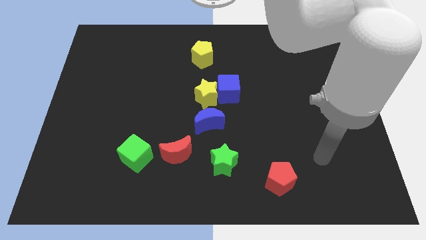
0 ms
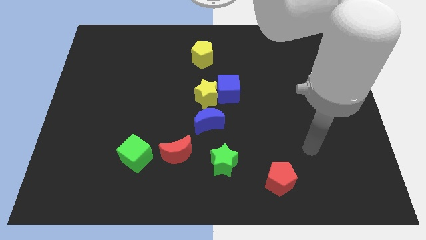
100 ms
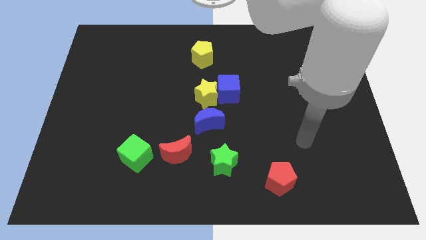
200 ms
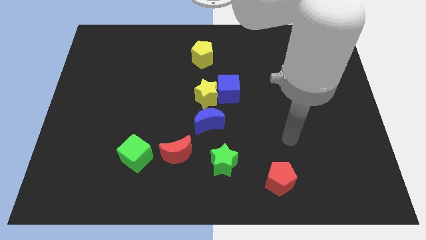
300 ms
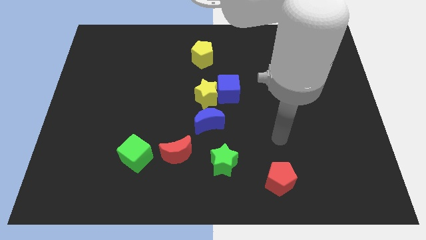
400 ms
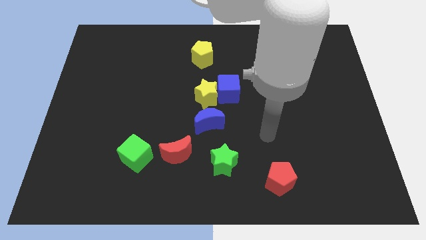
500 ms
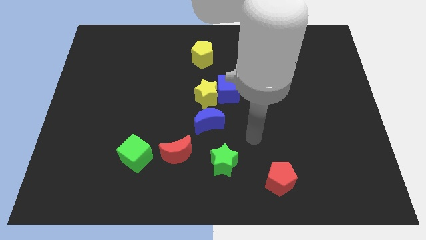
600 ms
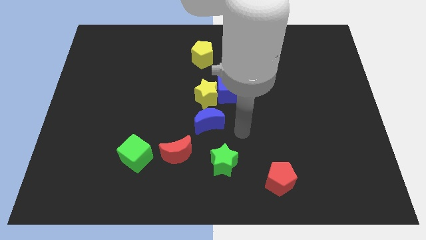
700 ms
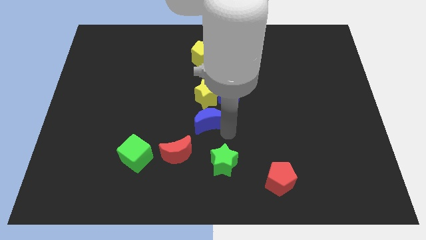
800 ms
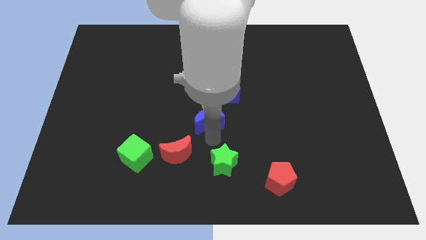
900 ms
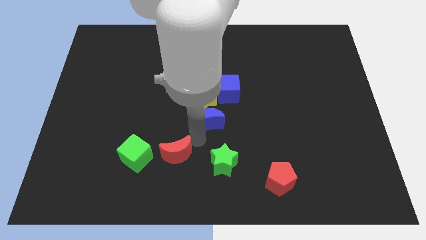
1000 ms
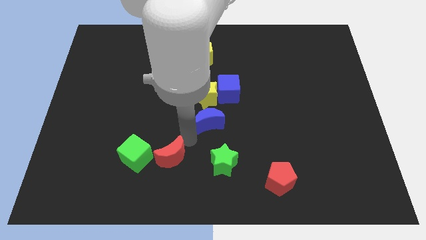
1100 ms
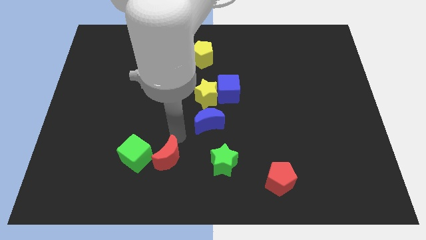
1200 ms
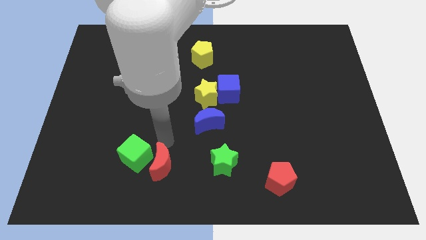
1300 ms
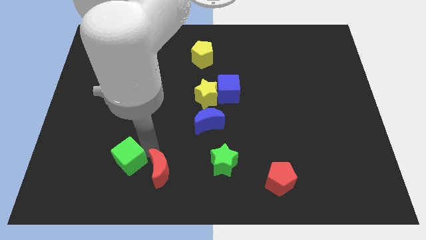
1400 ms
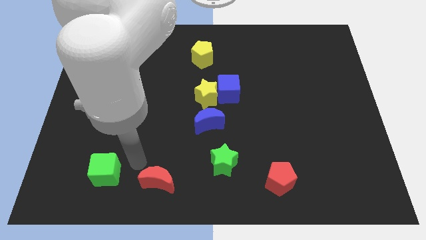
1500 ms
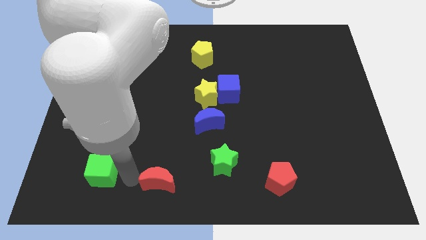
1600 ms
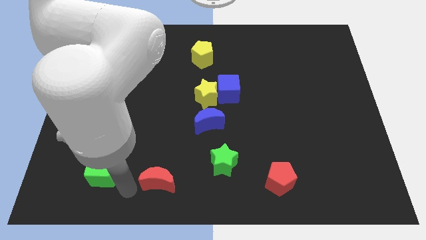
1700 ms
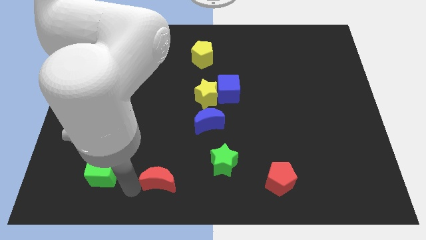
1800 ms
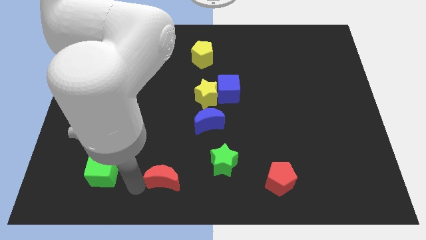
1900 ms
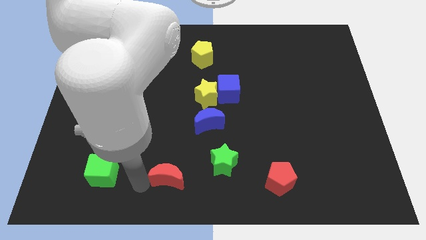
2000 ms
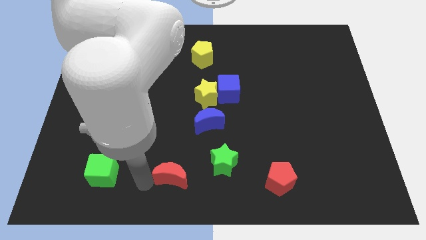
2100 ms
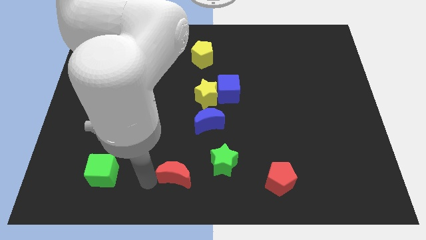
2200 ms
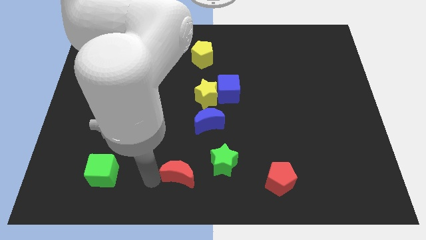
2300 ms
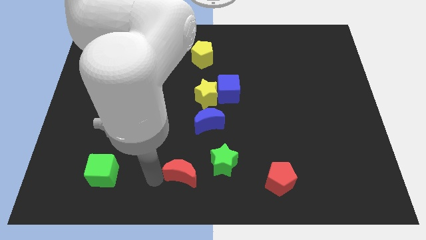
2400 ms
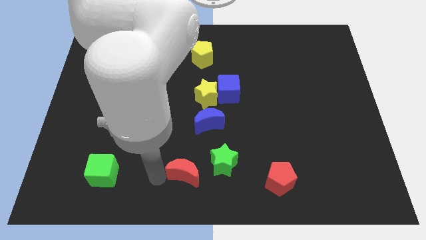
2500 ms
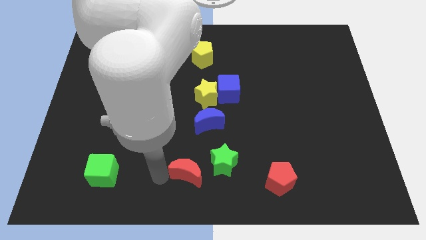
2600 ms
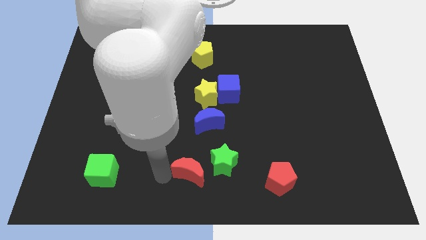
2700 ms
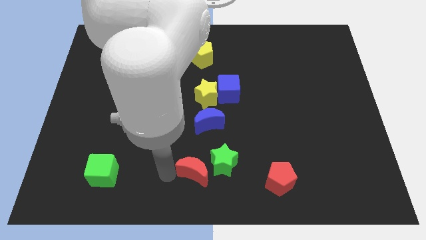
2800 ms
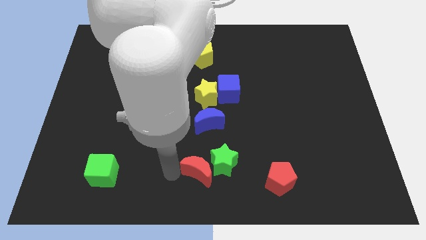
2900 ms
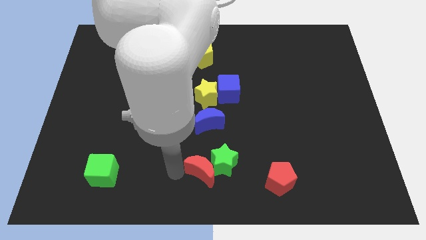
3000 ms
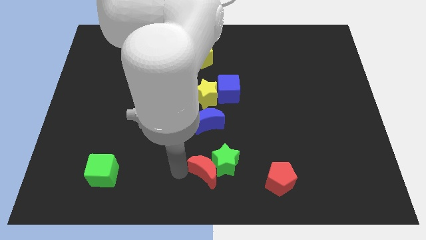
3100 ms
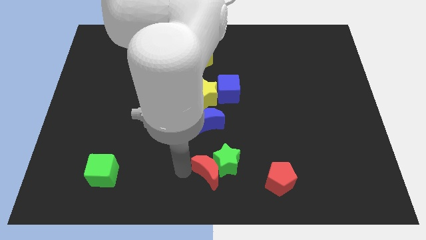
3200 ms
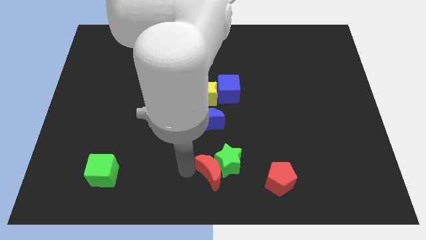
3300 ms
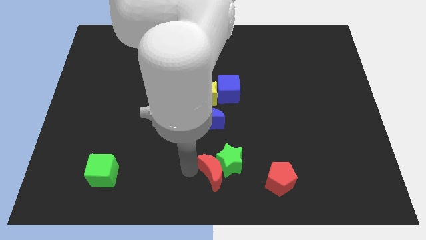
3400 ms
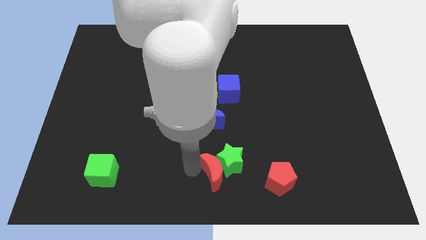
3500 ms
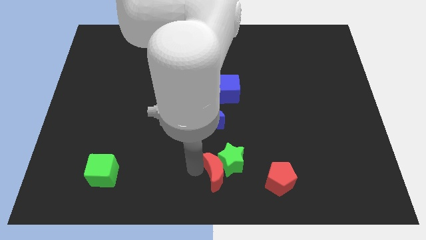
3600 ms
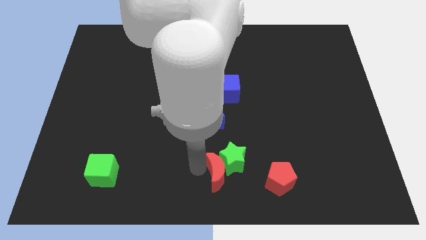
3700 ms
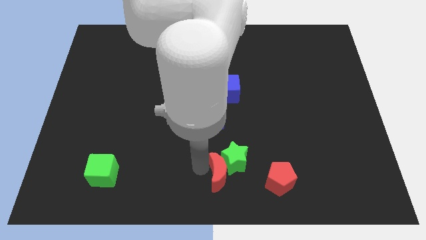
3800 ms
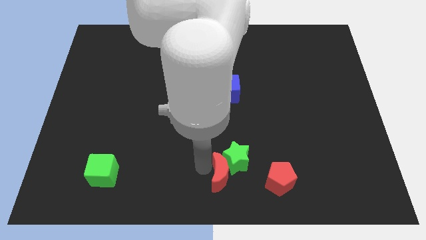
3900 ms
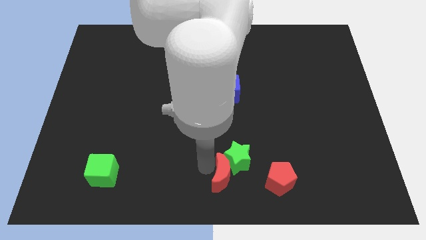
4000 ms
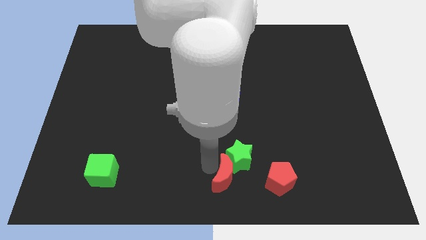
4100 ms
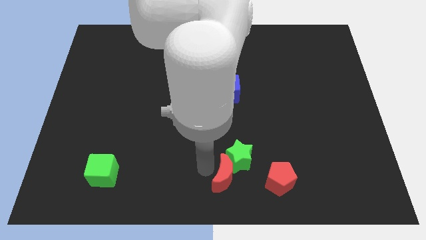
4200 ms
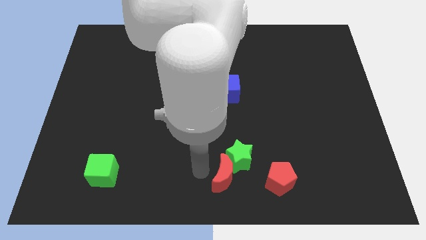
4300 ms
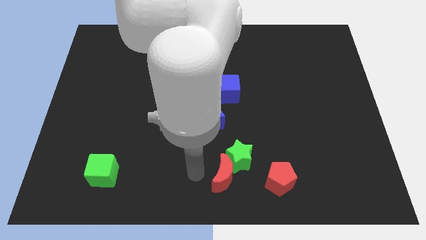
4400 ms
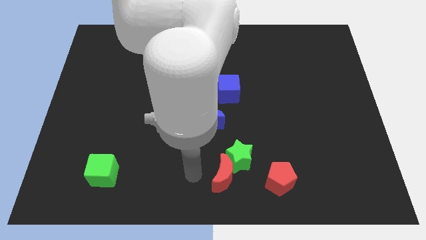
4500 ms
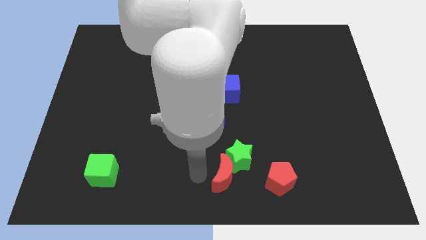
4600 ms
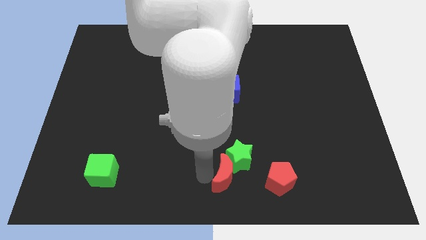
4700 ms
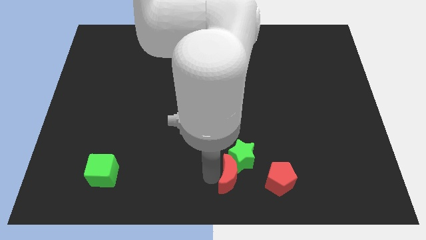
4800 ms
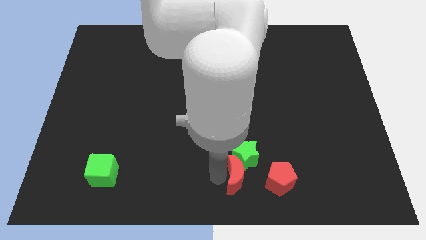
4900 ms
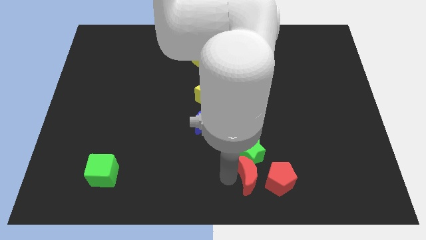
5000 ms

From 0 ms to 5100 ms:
move the red moon next to the red pentagon

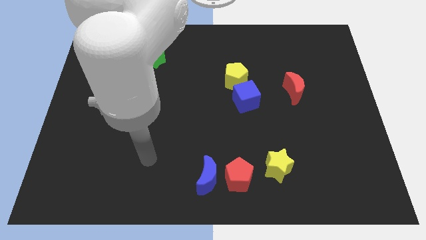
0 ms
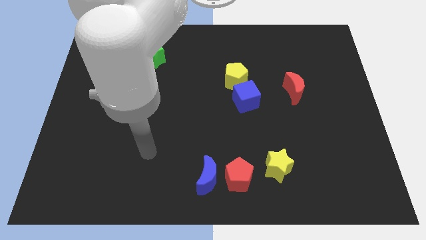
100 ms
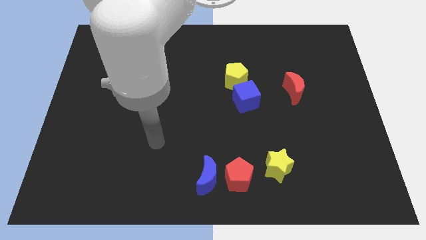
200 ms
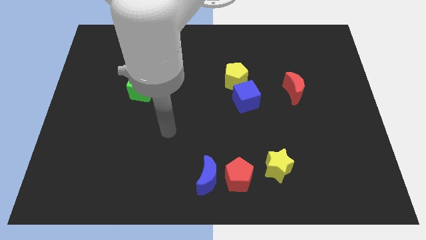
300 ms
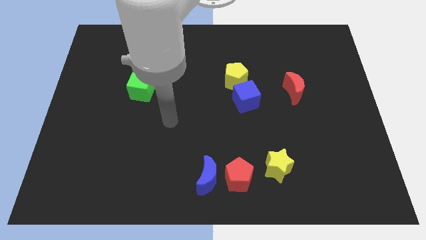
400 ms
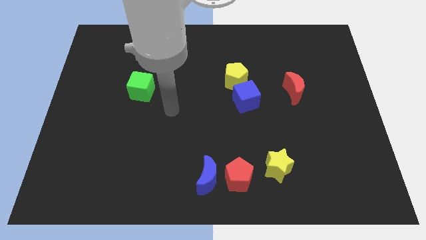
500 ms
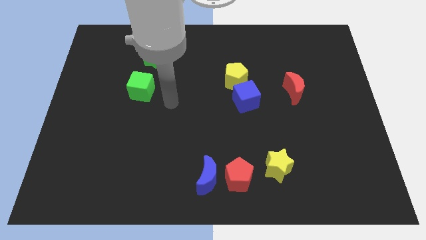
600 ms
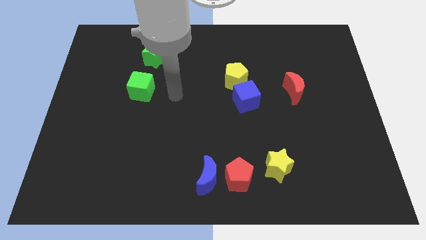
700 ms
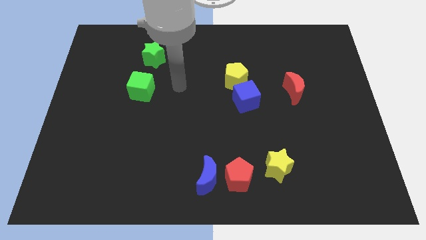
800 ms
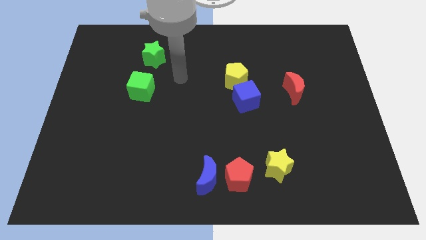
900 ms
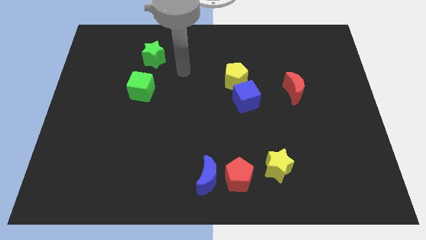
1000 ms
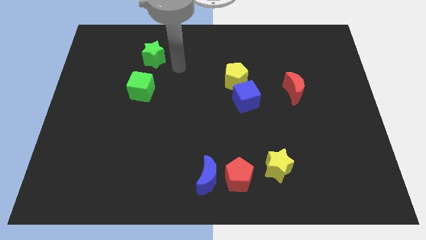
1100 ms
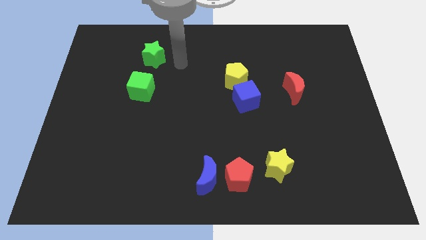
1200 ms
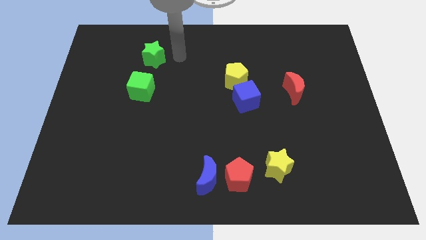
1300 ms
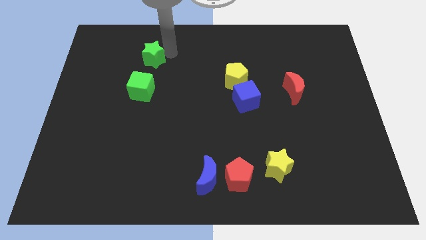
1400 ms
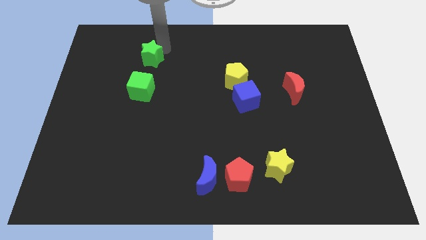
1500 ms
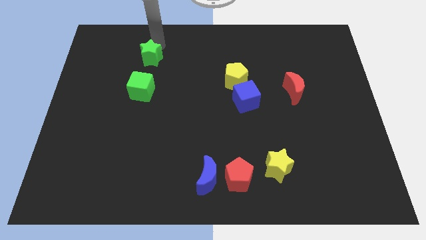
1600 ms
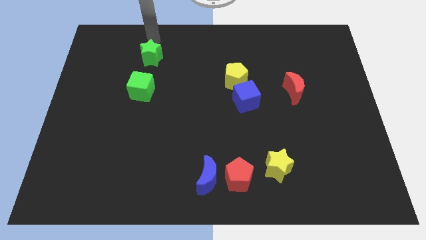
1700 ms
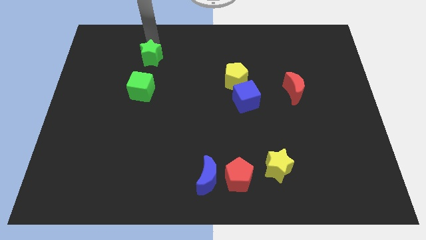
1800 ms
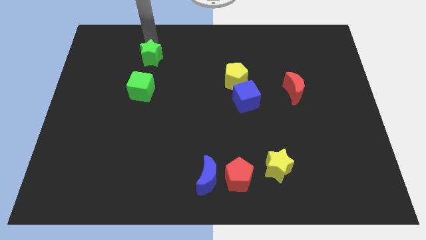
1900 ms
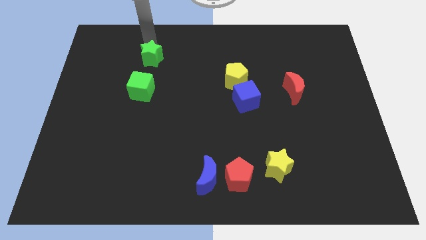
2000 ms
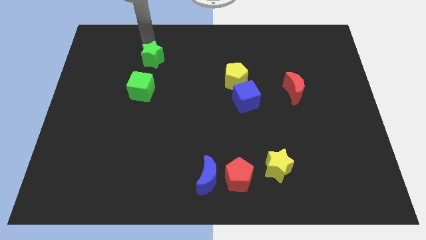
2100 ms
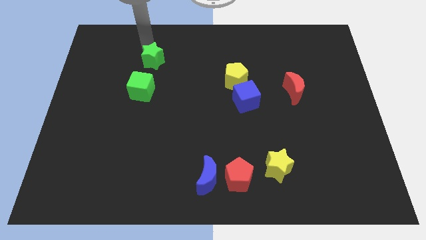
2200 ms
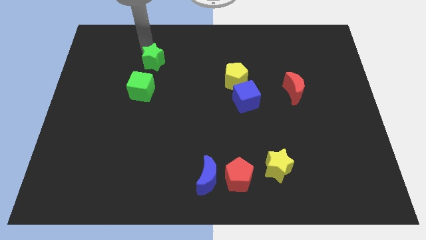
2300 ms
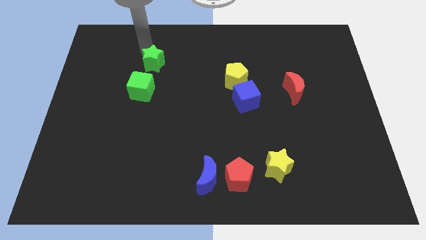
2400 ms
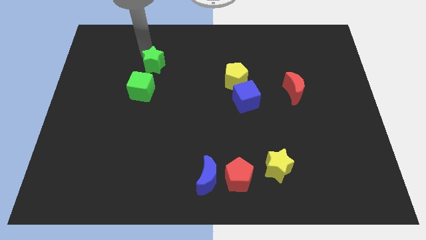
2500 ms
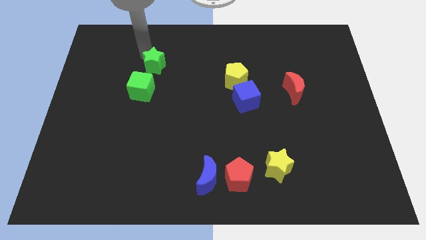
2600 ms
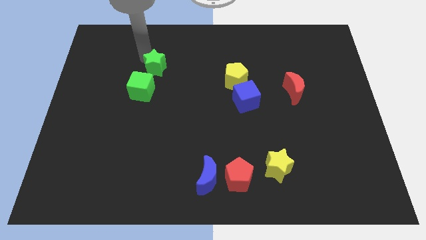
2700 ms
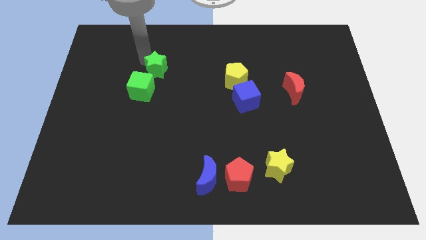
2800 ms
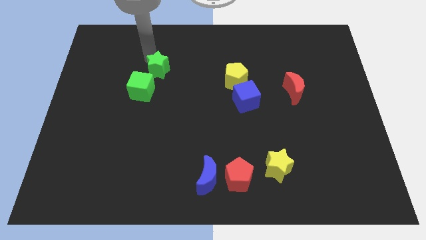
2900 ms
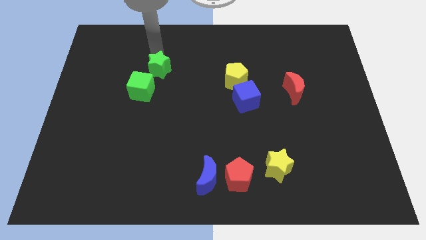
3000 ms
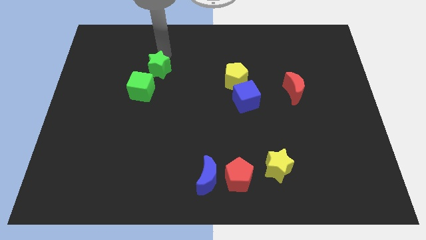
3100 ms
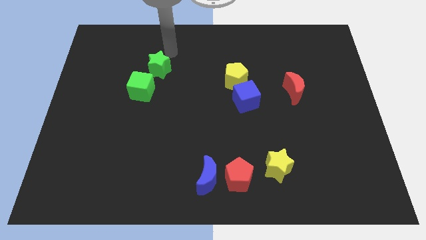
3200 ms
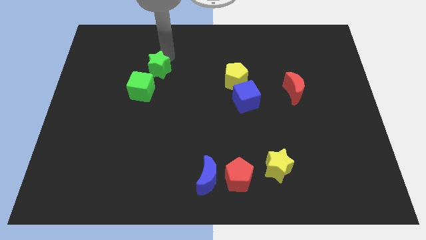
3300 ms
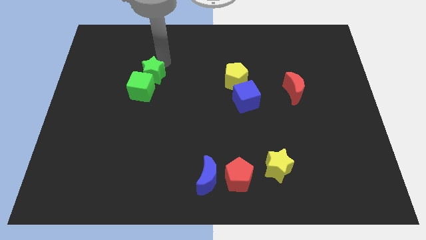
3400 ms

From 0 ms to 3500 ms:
put the green star towards the green cube

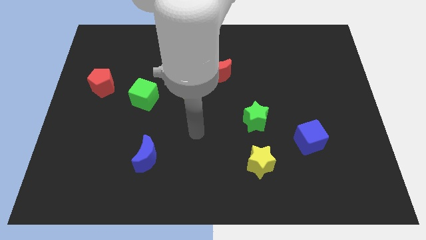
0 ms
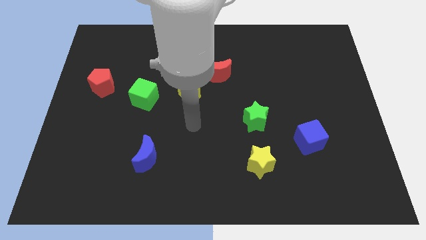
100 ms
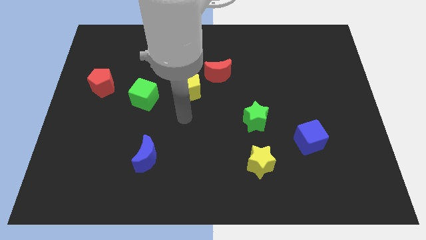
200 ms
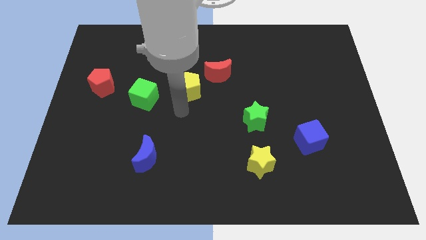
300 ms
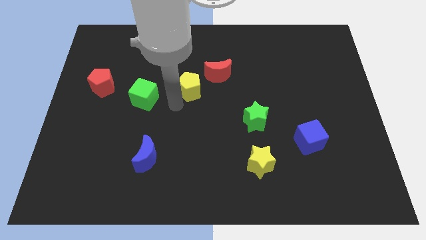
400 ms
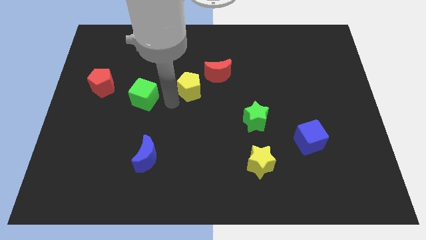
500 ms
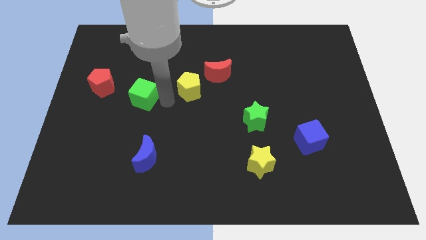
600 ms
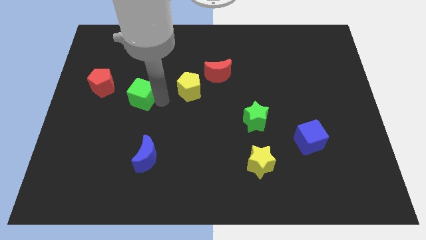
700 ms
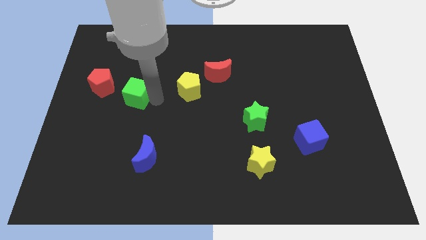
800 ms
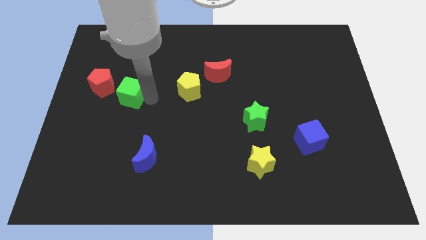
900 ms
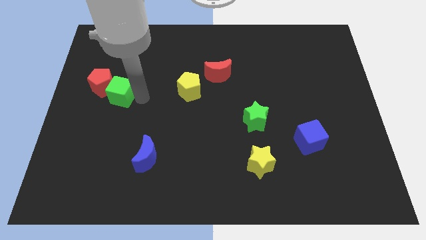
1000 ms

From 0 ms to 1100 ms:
slide the green cube close to the red pentagon
